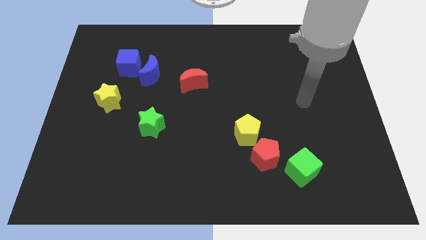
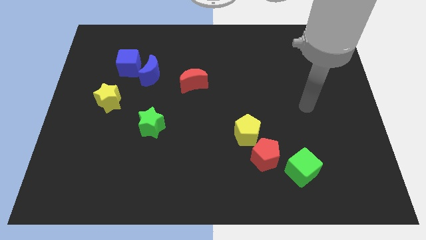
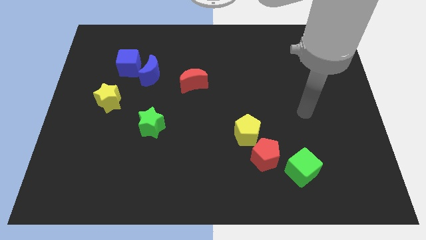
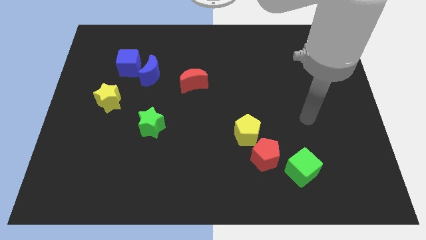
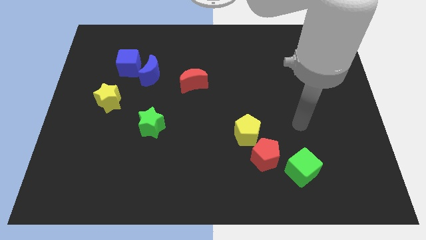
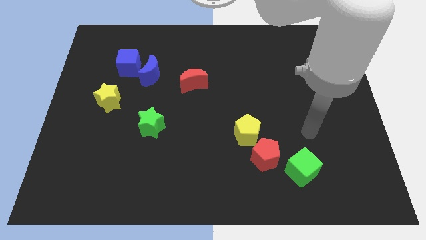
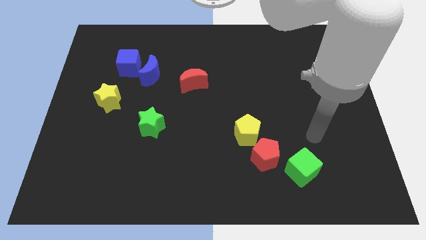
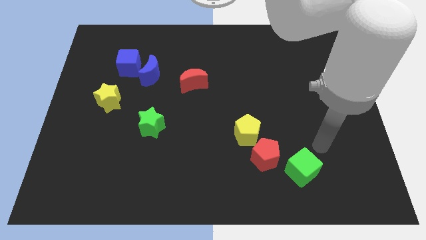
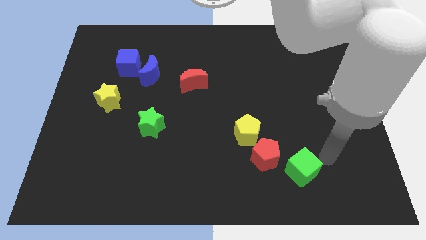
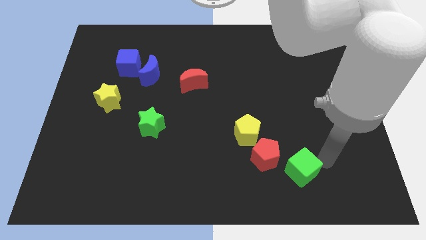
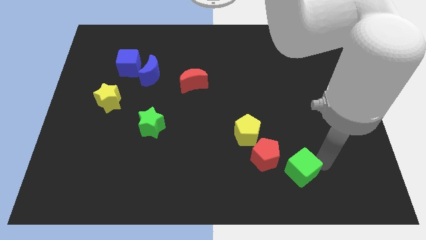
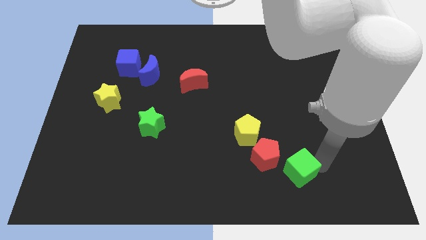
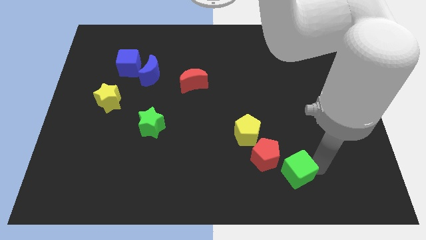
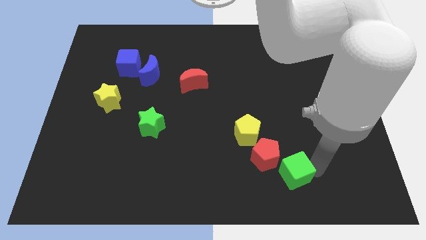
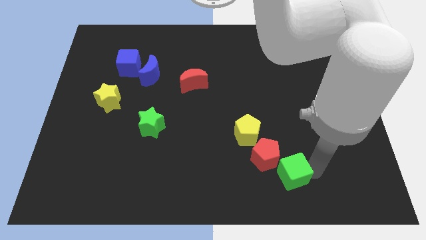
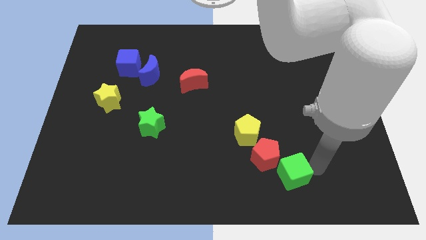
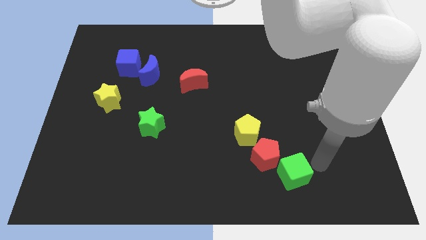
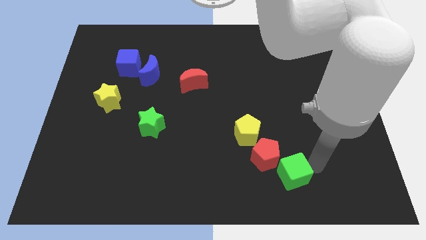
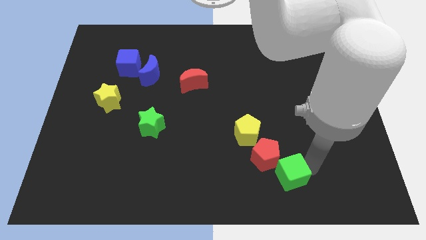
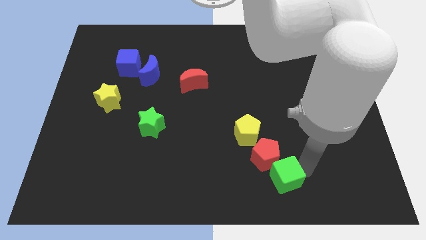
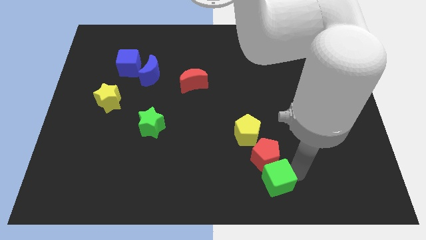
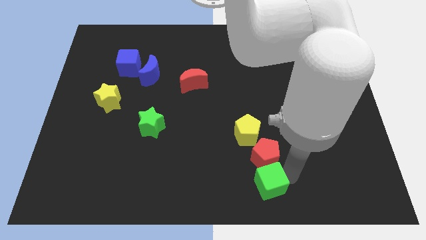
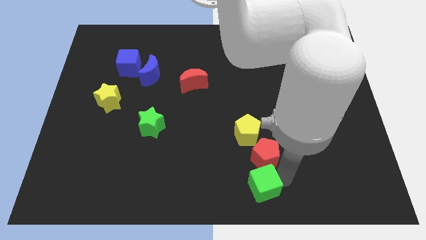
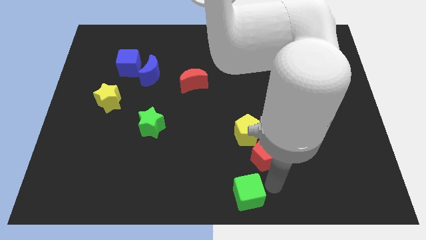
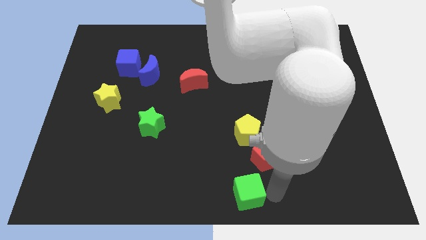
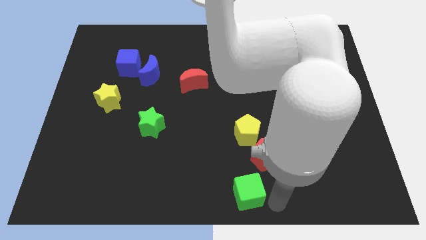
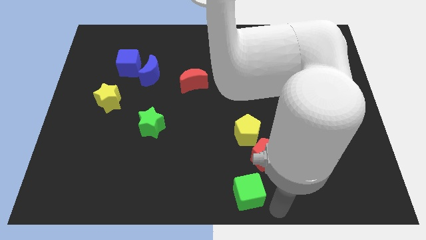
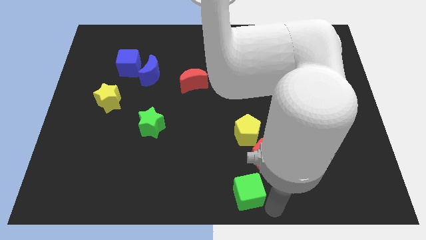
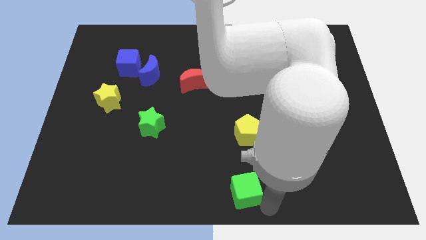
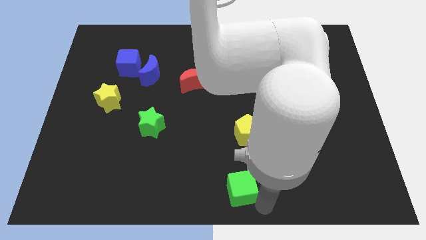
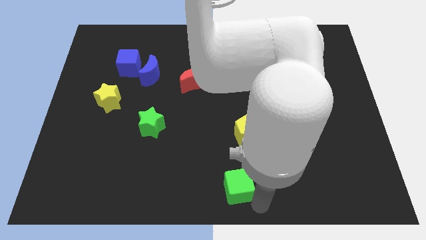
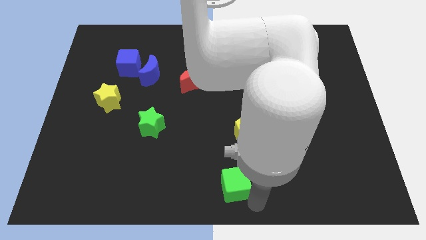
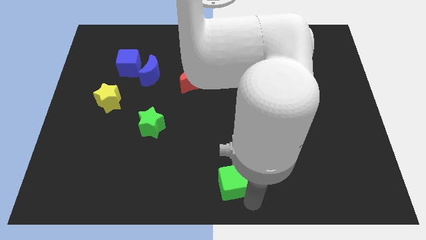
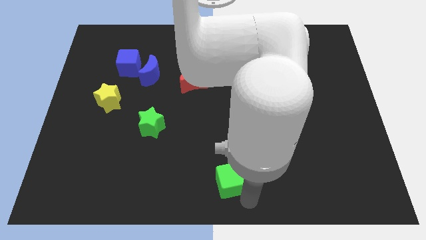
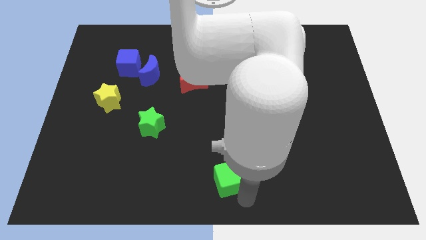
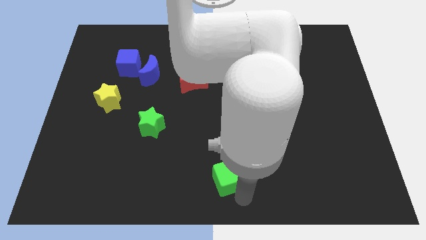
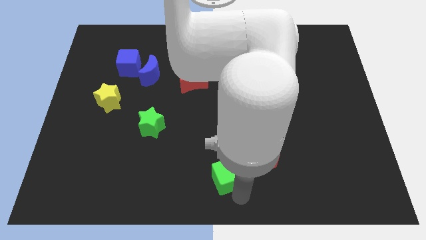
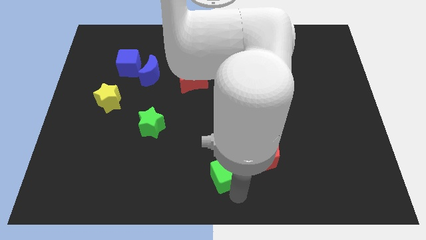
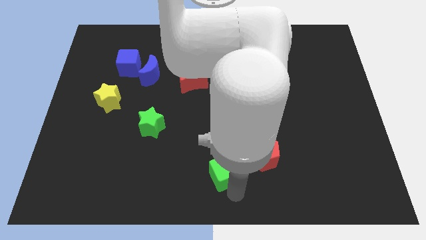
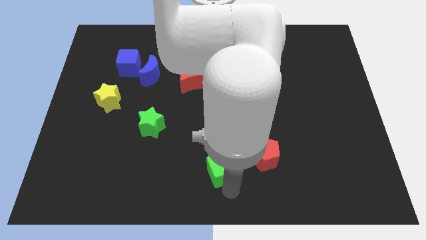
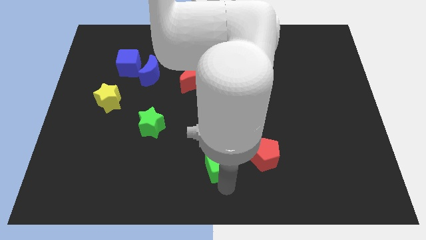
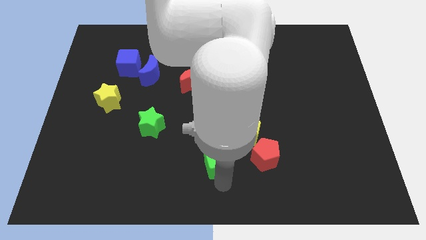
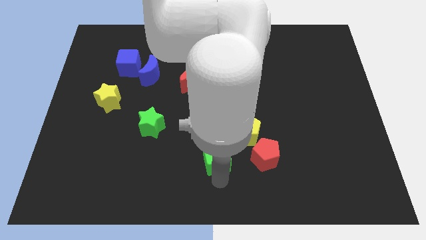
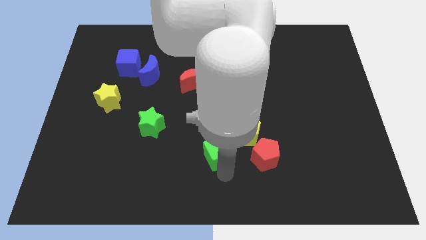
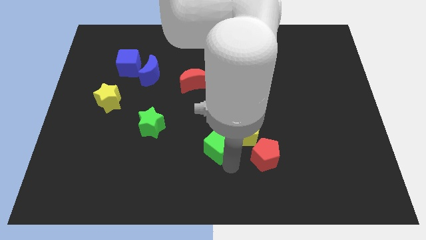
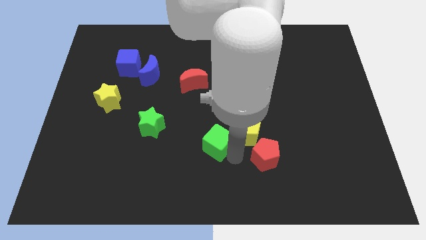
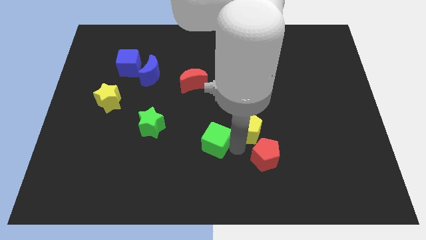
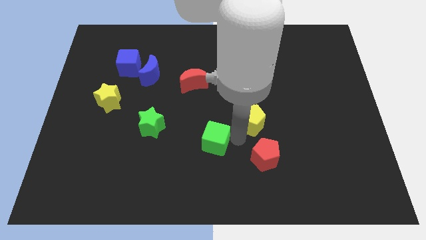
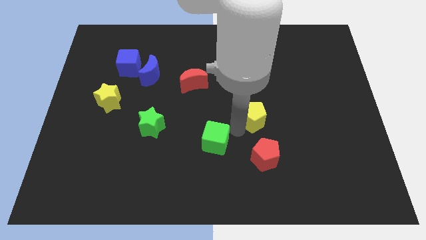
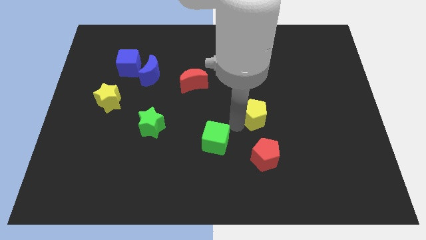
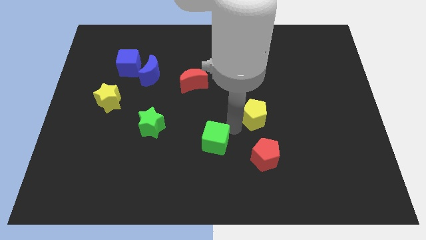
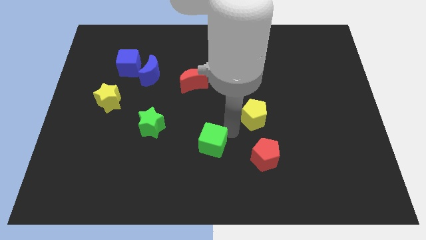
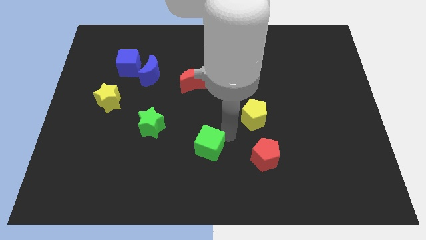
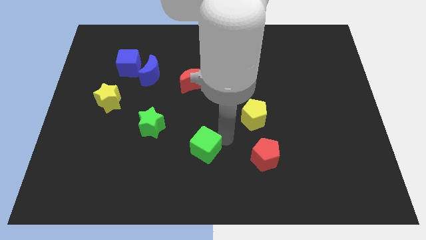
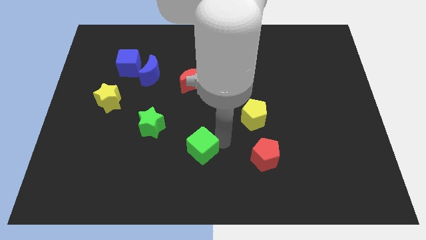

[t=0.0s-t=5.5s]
push the green cube left

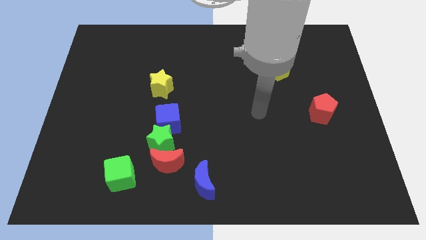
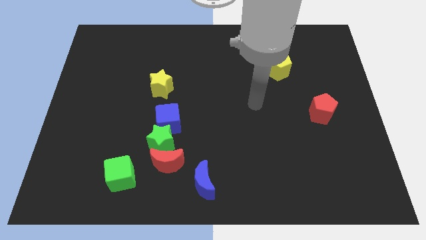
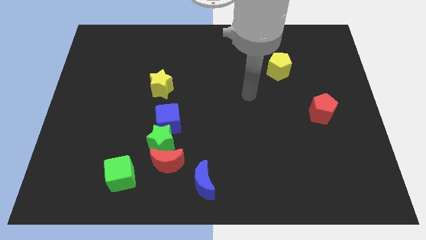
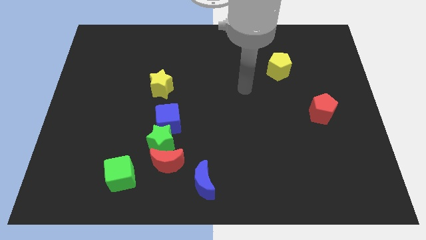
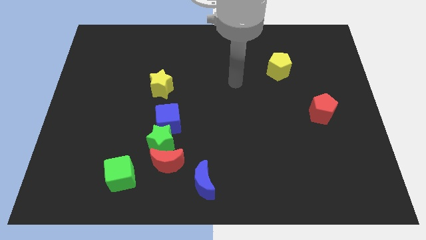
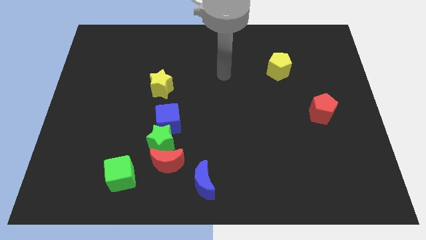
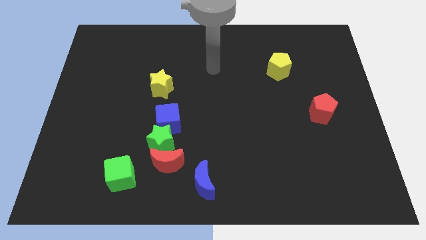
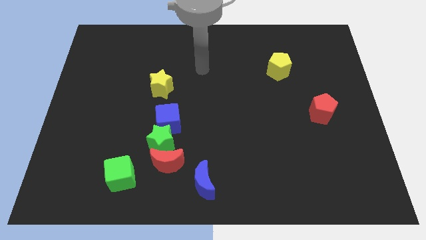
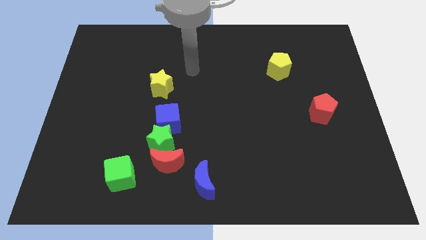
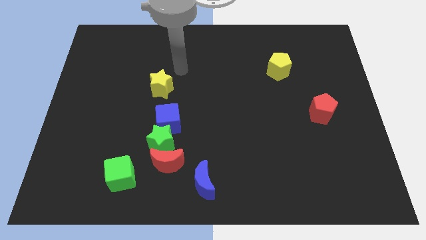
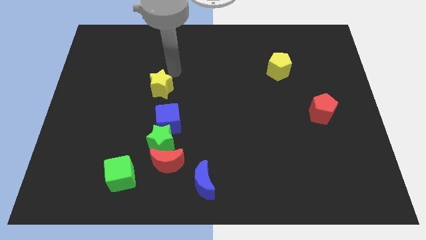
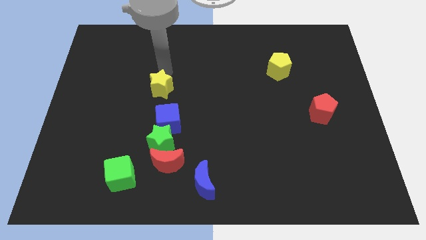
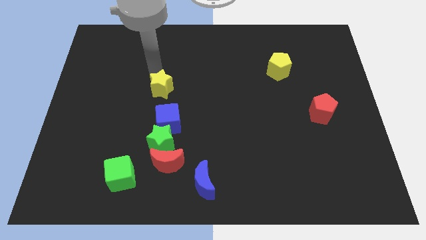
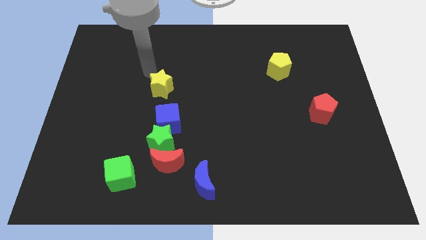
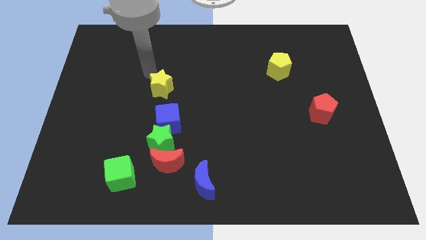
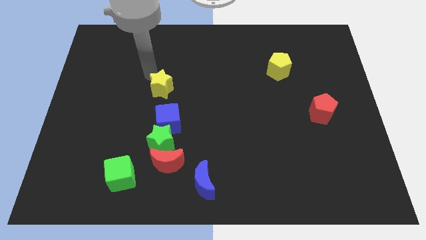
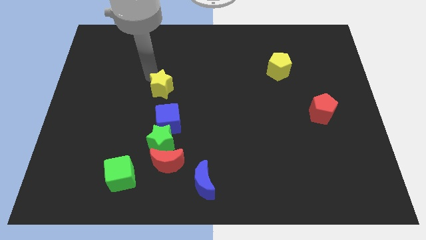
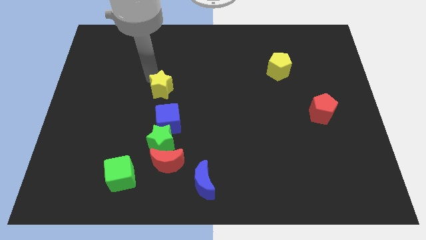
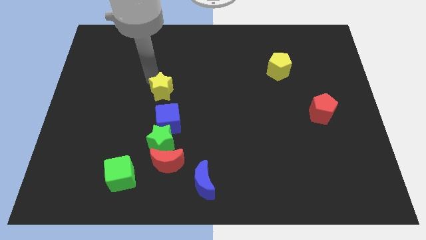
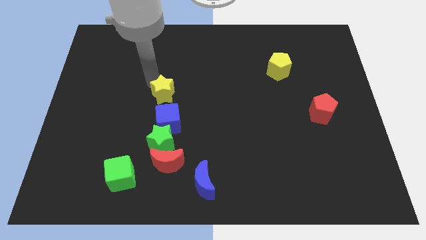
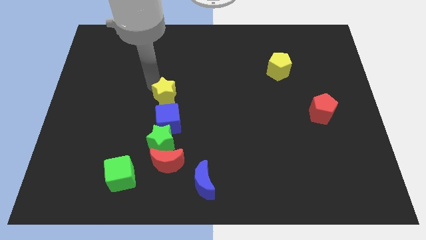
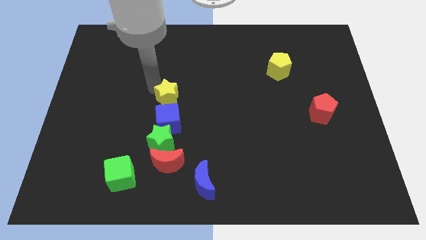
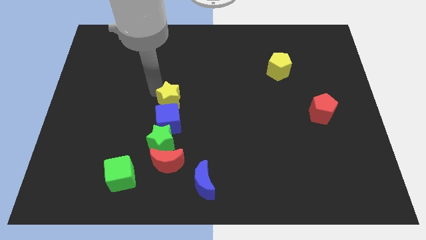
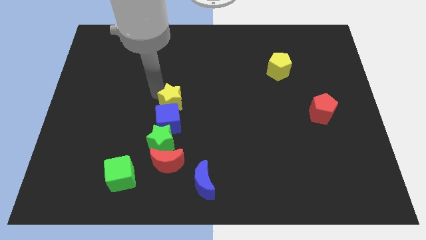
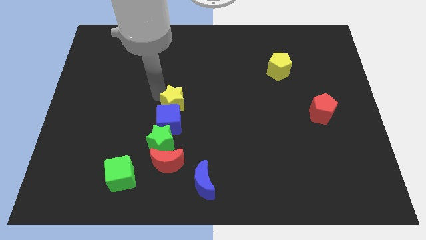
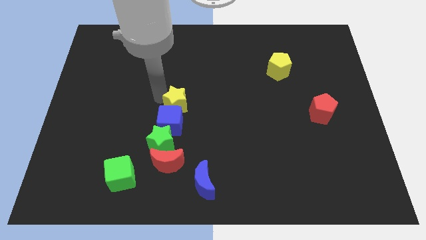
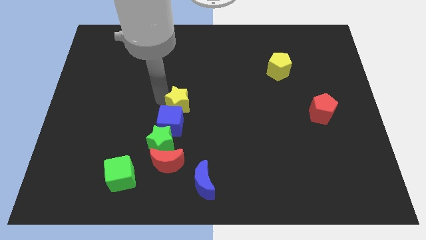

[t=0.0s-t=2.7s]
slide the yellow star downwards and right diagonally a little bit
